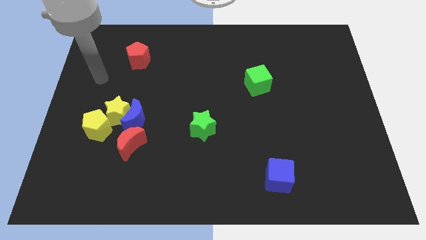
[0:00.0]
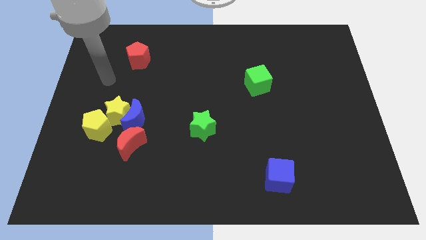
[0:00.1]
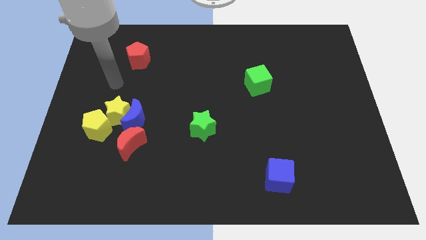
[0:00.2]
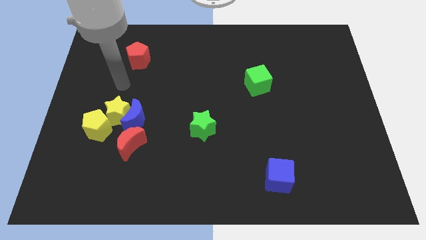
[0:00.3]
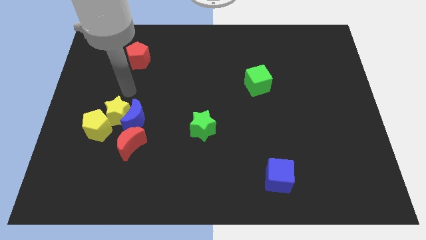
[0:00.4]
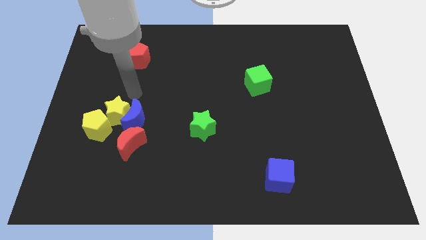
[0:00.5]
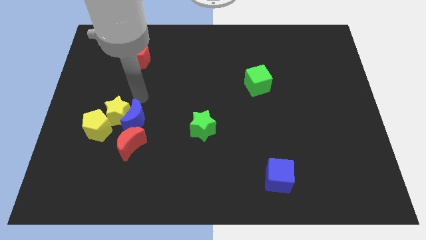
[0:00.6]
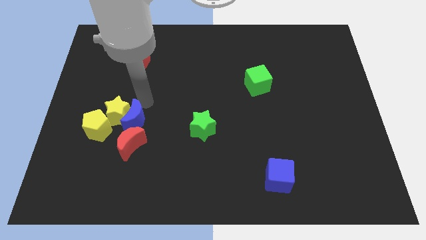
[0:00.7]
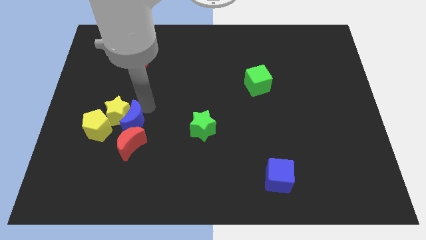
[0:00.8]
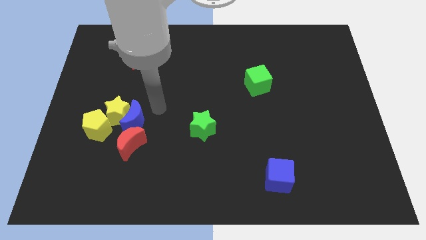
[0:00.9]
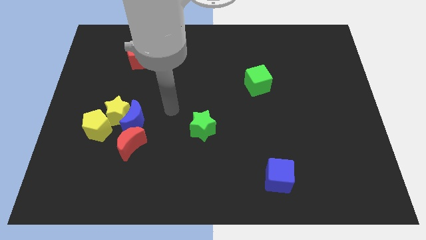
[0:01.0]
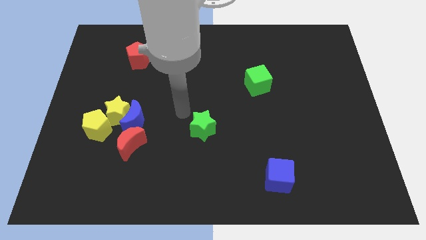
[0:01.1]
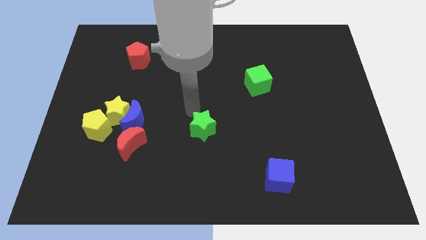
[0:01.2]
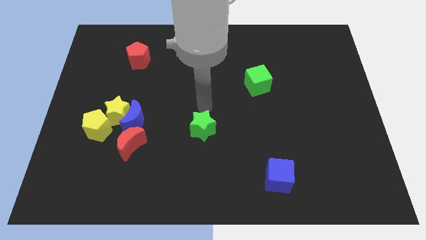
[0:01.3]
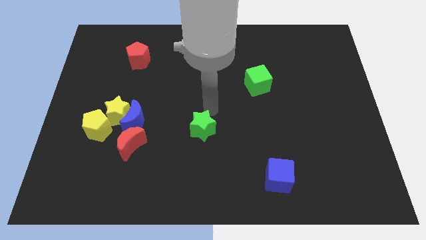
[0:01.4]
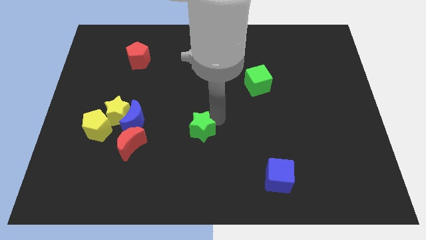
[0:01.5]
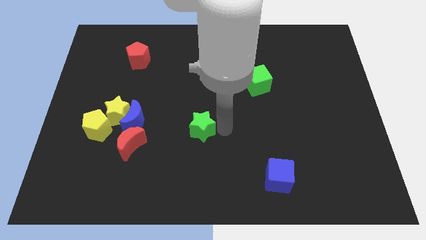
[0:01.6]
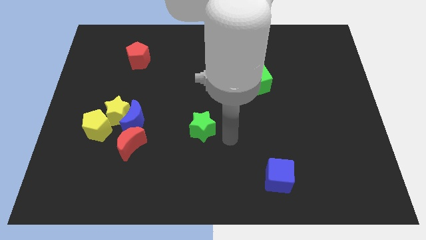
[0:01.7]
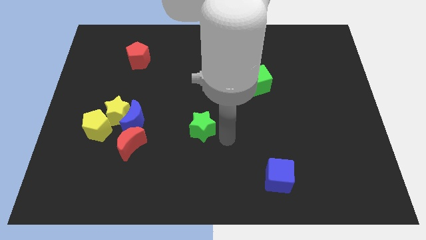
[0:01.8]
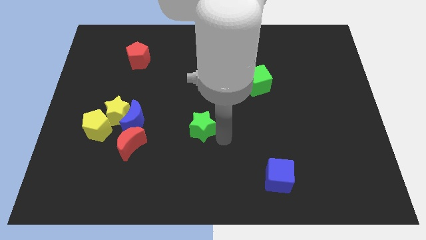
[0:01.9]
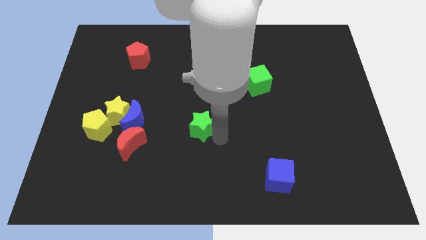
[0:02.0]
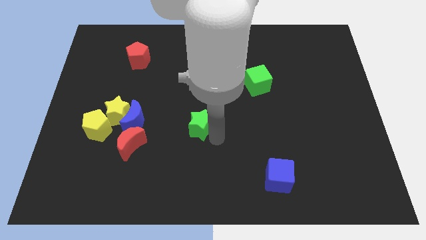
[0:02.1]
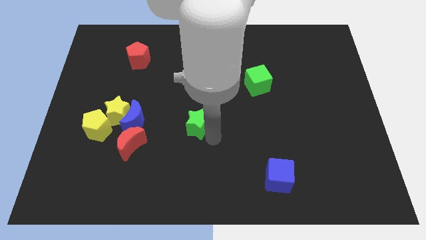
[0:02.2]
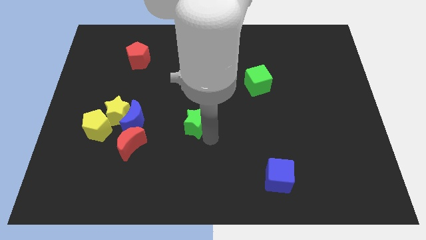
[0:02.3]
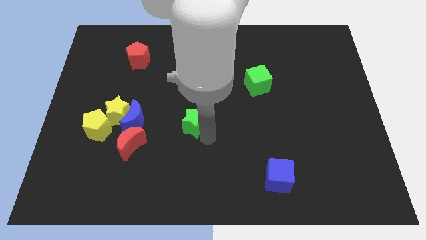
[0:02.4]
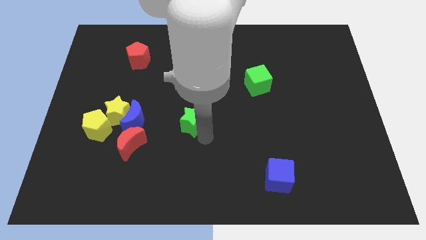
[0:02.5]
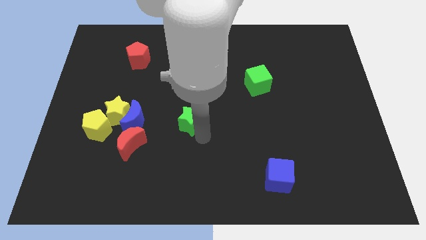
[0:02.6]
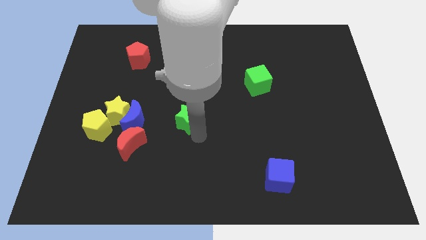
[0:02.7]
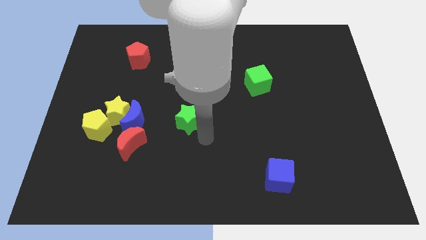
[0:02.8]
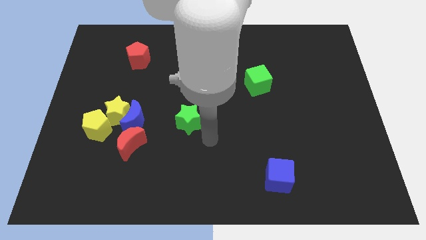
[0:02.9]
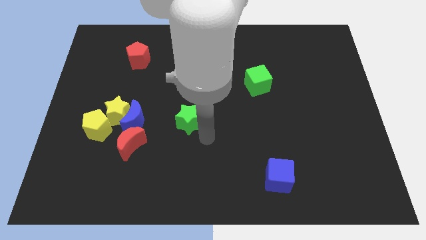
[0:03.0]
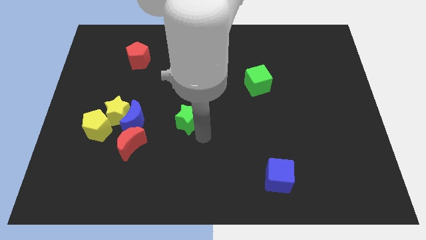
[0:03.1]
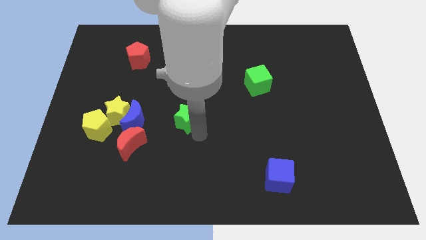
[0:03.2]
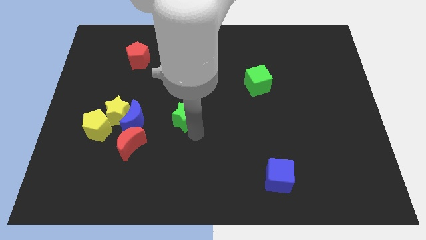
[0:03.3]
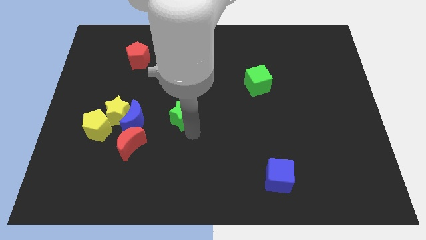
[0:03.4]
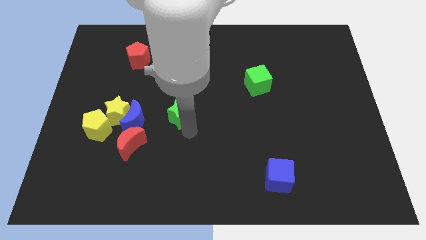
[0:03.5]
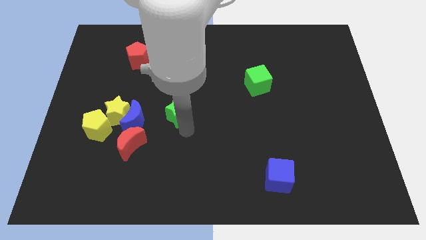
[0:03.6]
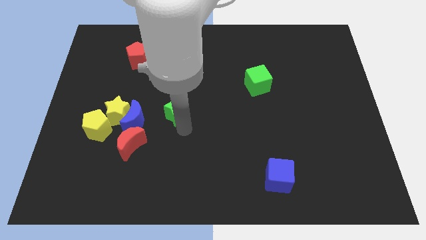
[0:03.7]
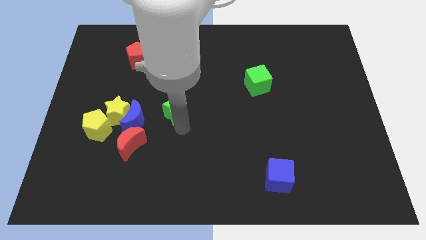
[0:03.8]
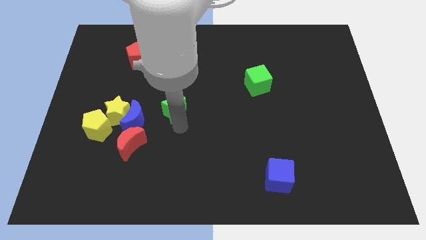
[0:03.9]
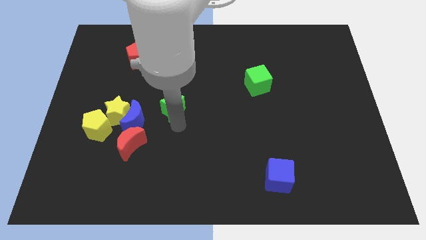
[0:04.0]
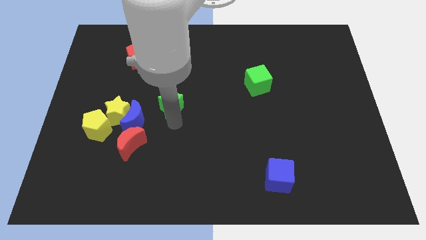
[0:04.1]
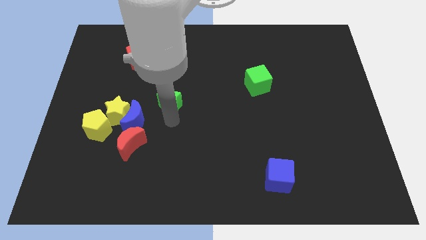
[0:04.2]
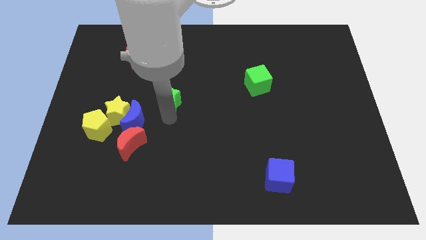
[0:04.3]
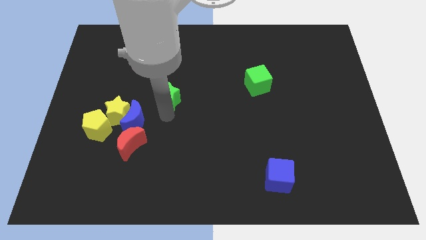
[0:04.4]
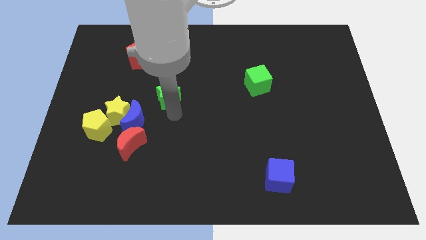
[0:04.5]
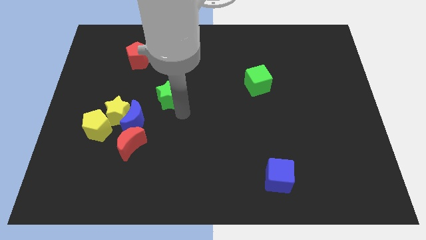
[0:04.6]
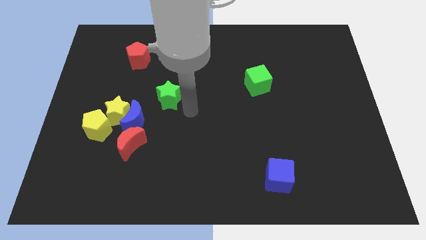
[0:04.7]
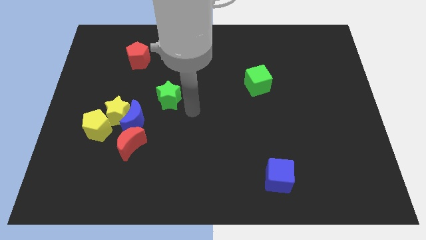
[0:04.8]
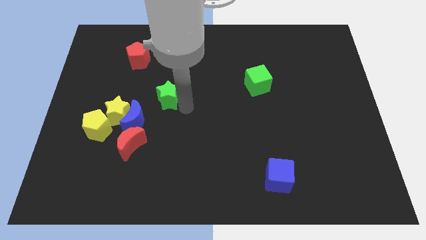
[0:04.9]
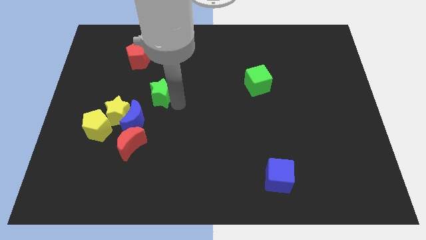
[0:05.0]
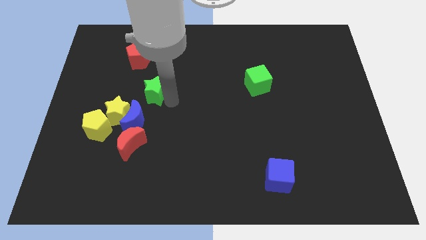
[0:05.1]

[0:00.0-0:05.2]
push the green star above the blue moon

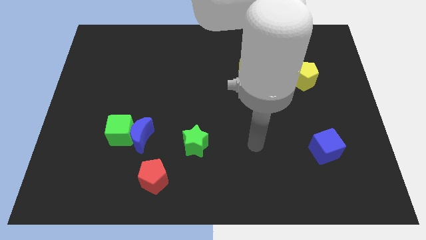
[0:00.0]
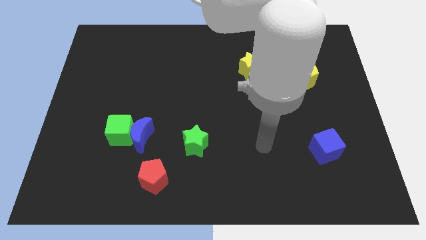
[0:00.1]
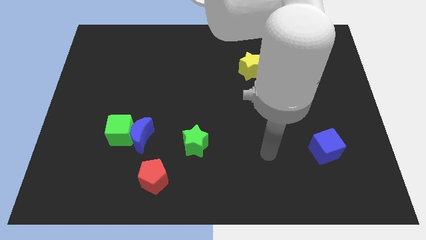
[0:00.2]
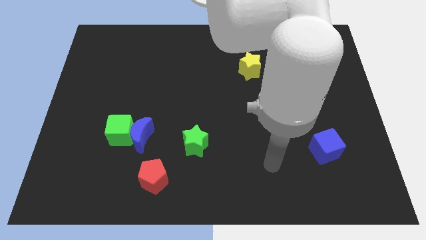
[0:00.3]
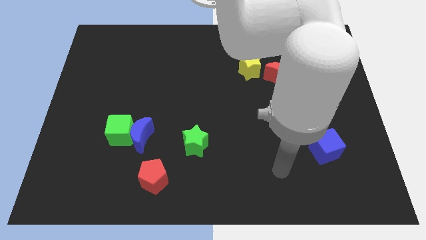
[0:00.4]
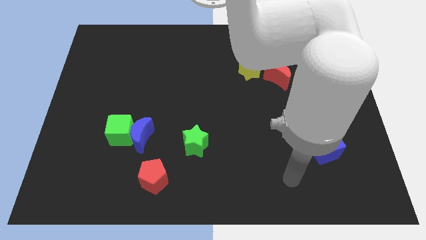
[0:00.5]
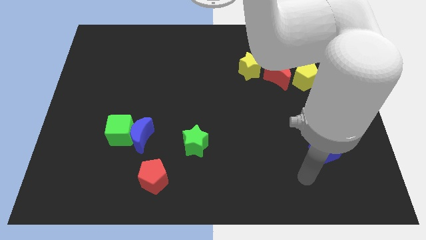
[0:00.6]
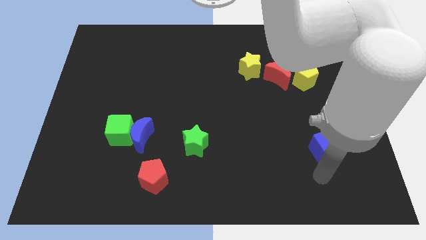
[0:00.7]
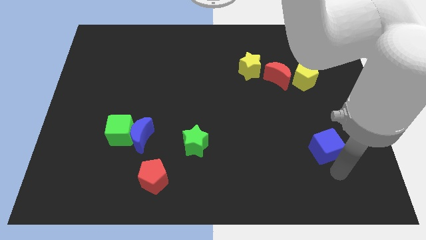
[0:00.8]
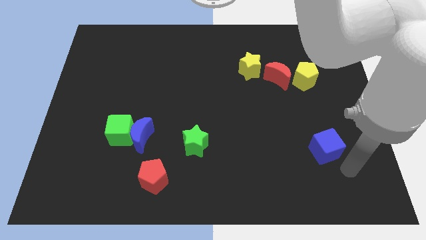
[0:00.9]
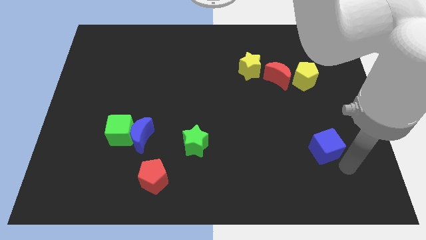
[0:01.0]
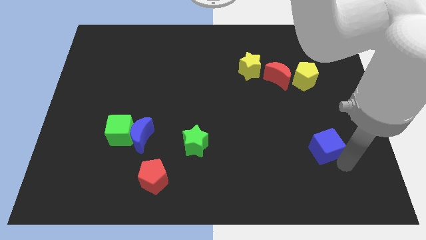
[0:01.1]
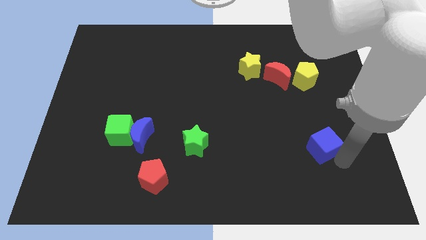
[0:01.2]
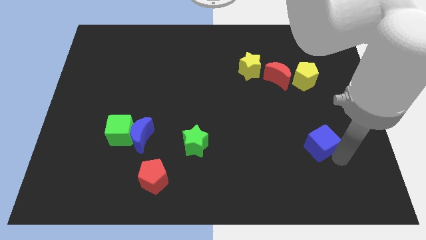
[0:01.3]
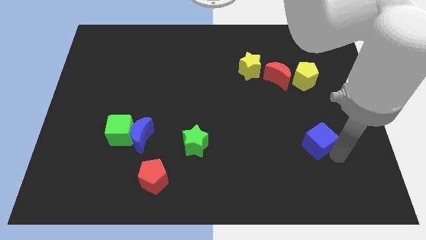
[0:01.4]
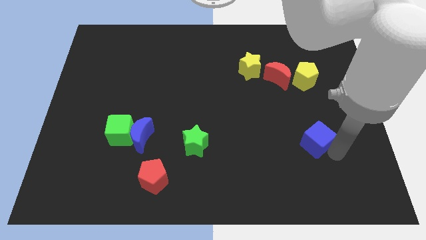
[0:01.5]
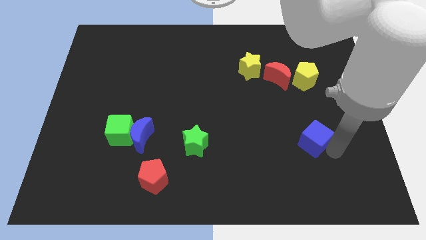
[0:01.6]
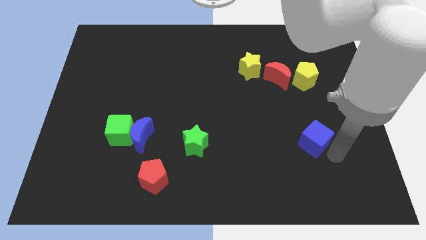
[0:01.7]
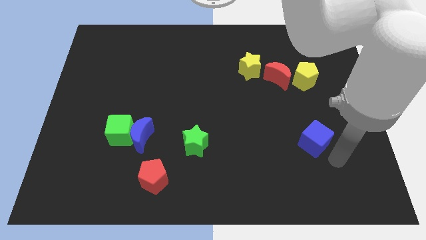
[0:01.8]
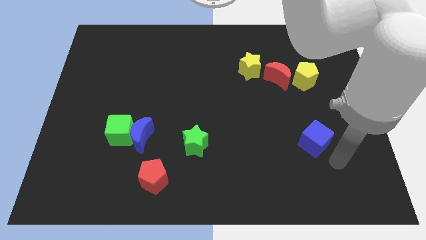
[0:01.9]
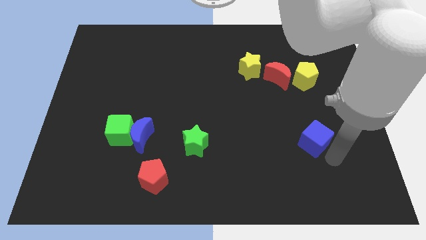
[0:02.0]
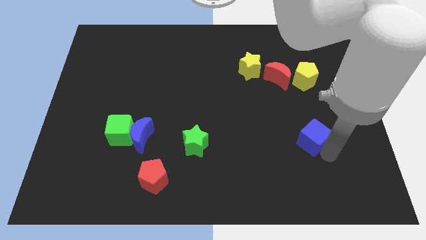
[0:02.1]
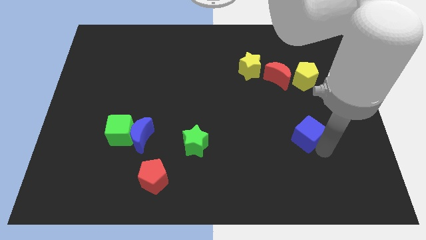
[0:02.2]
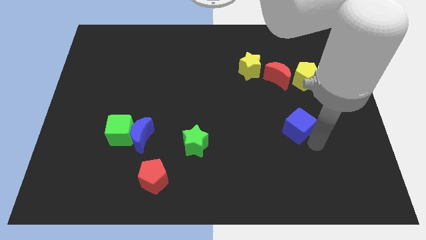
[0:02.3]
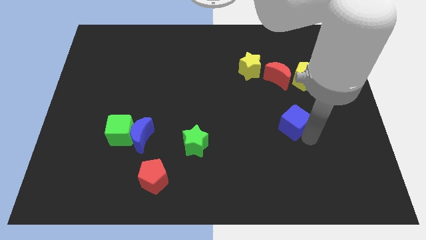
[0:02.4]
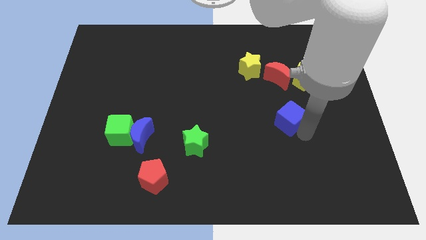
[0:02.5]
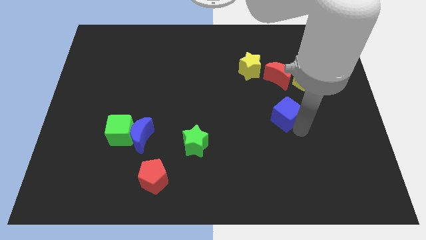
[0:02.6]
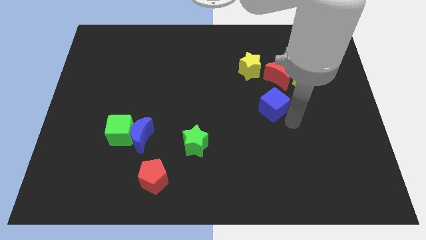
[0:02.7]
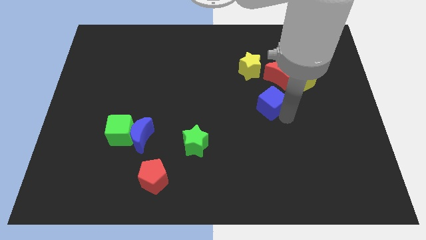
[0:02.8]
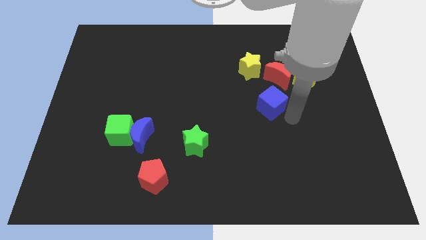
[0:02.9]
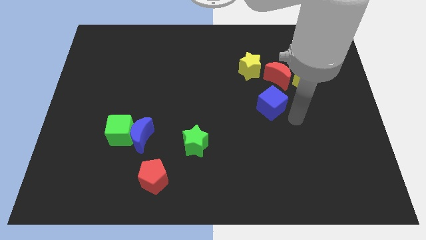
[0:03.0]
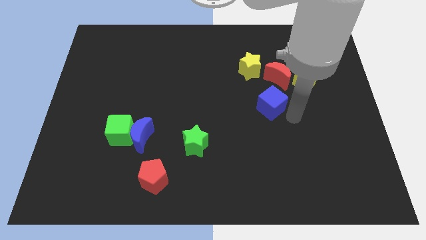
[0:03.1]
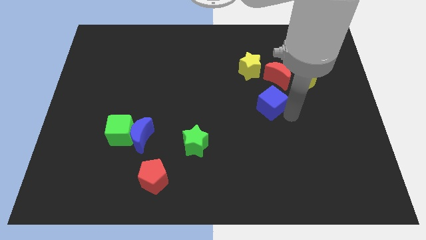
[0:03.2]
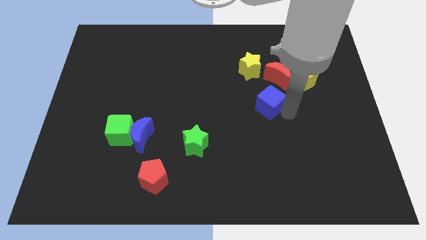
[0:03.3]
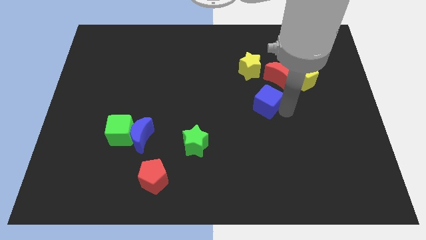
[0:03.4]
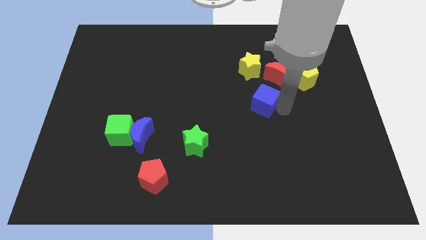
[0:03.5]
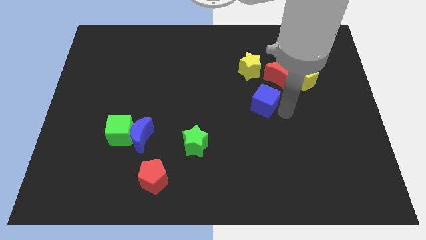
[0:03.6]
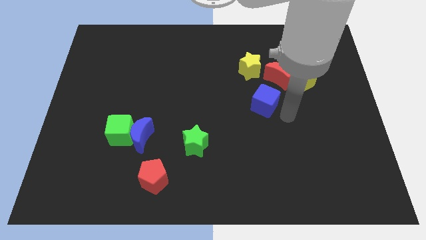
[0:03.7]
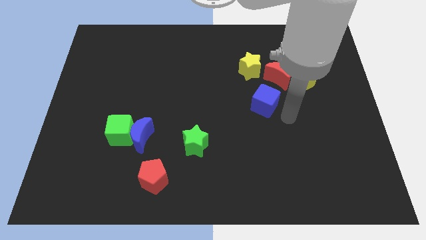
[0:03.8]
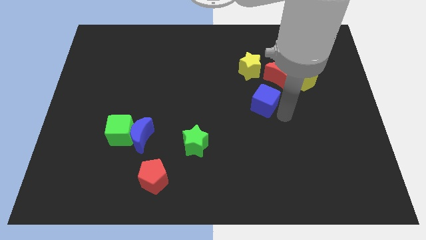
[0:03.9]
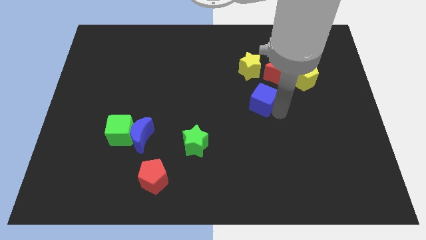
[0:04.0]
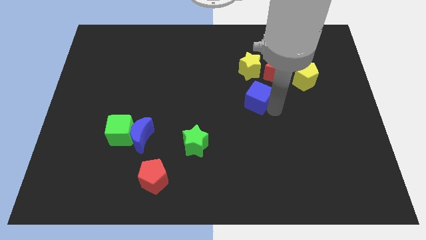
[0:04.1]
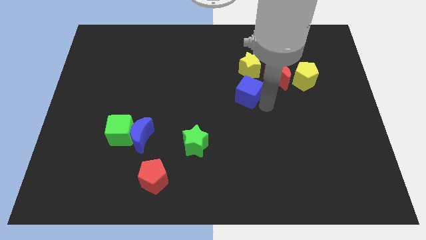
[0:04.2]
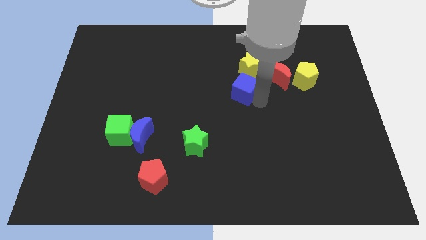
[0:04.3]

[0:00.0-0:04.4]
put the blue cube to the bottom left side of the yellow star
